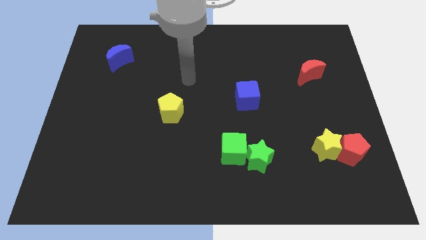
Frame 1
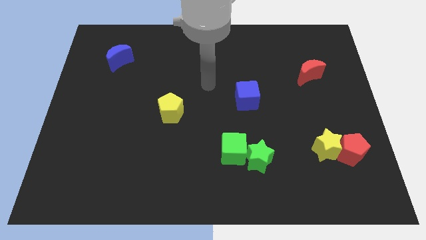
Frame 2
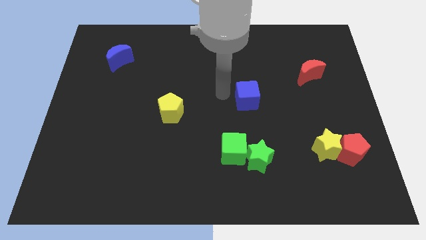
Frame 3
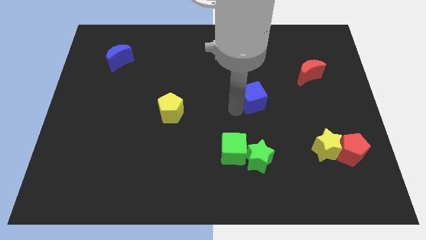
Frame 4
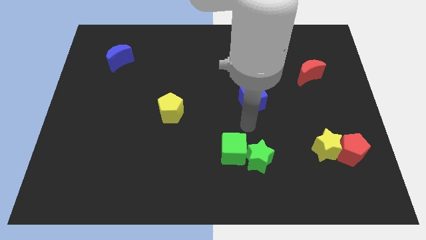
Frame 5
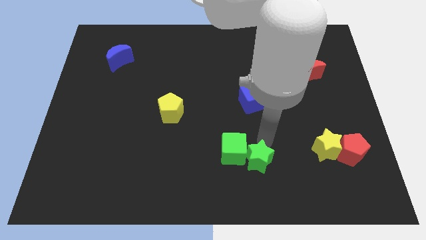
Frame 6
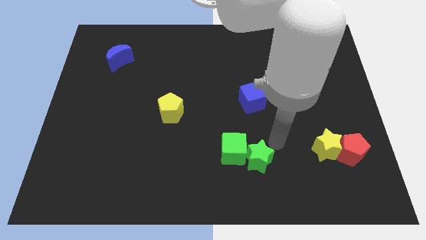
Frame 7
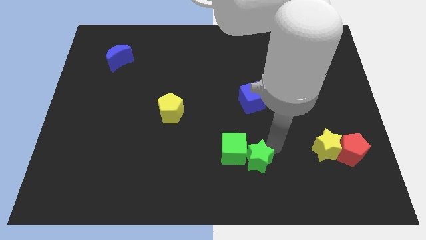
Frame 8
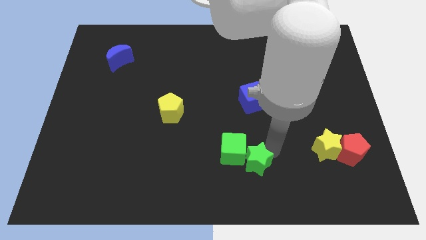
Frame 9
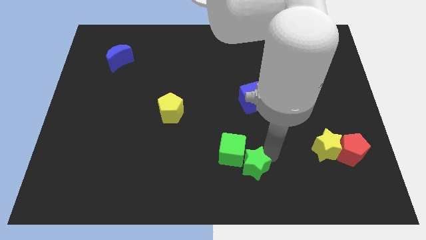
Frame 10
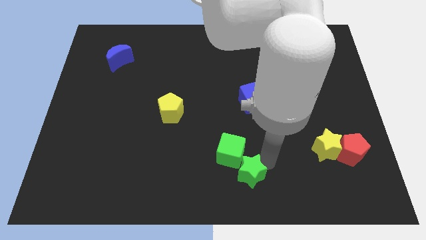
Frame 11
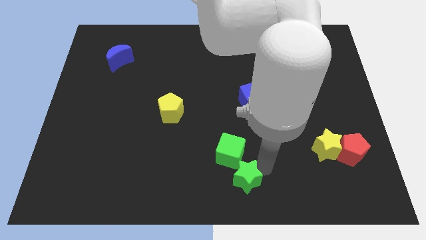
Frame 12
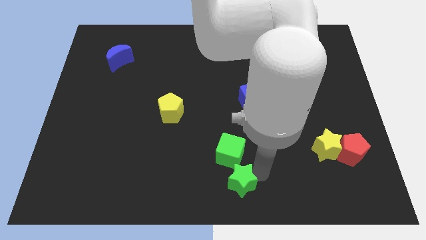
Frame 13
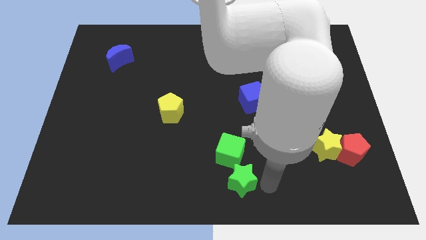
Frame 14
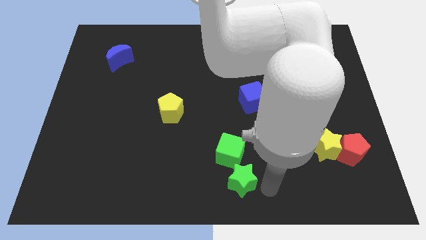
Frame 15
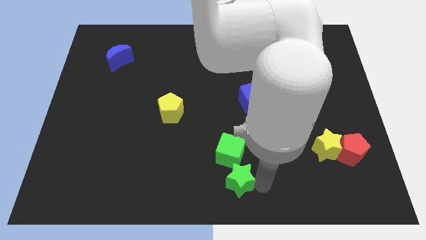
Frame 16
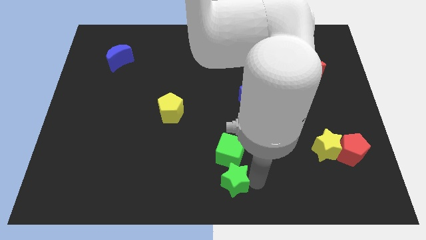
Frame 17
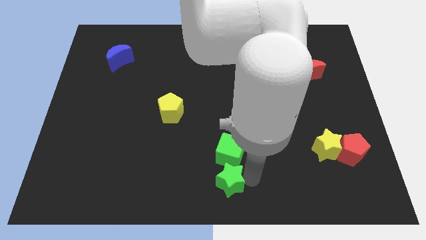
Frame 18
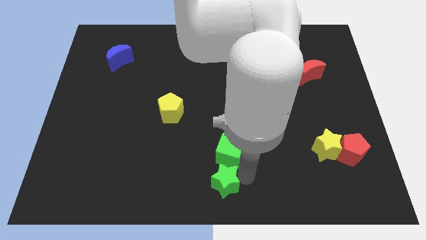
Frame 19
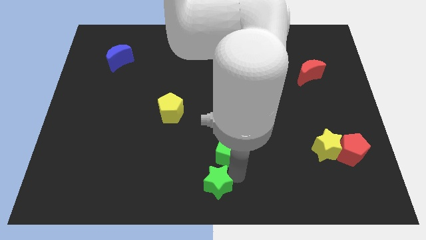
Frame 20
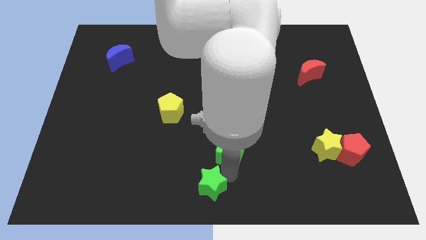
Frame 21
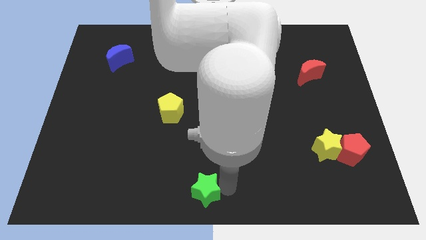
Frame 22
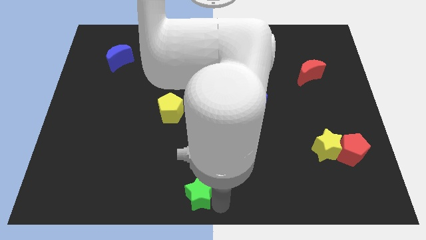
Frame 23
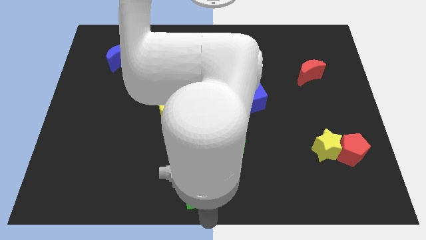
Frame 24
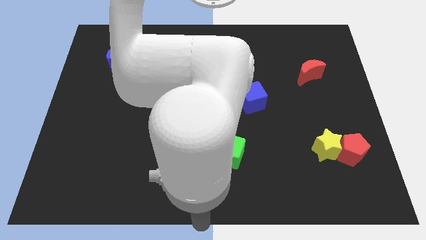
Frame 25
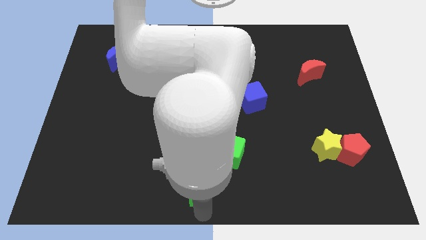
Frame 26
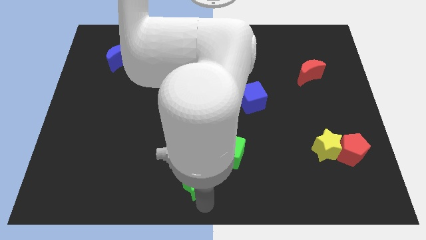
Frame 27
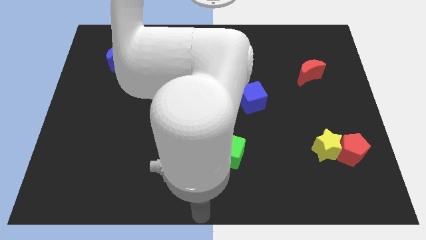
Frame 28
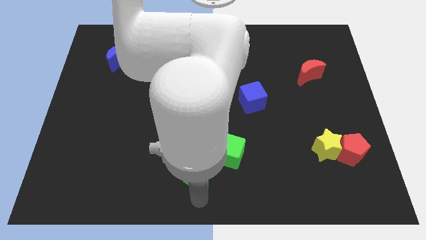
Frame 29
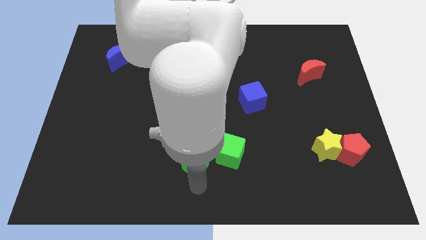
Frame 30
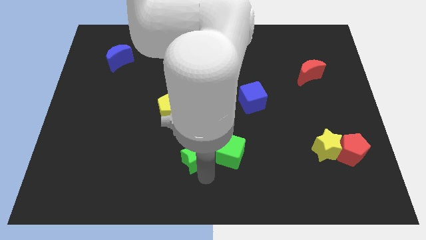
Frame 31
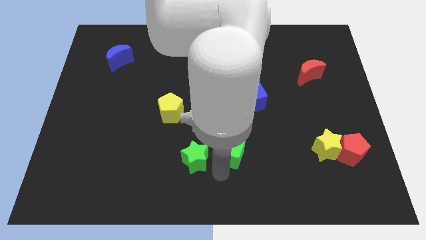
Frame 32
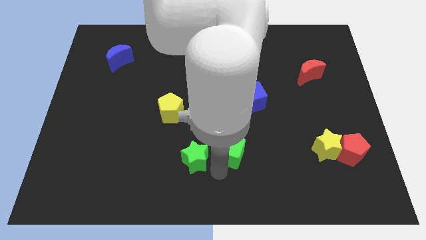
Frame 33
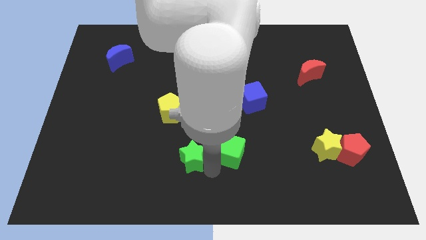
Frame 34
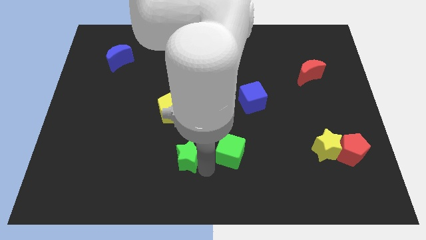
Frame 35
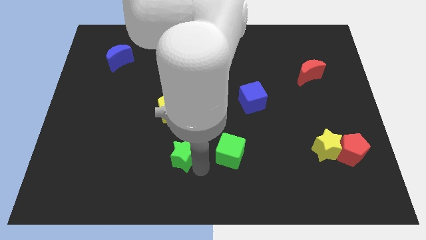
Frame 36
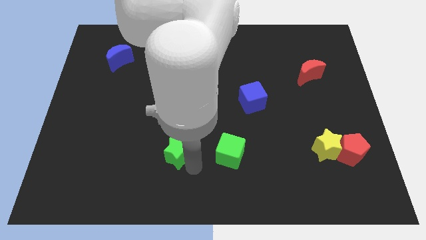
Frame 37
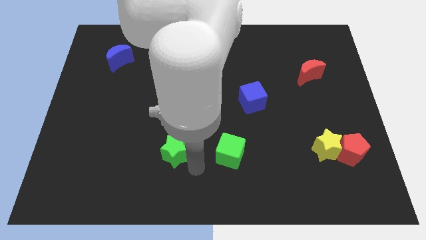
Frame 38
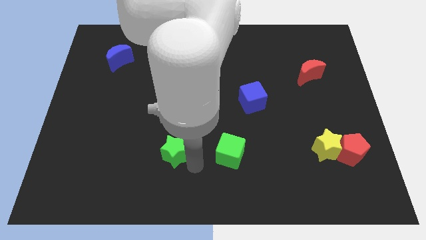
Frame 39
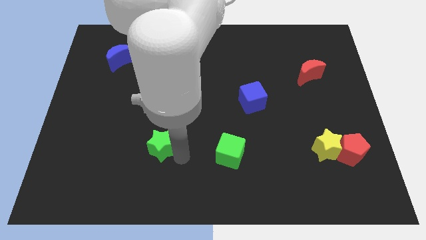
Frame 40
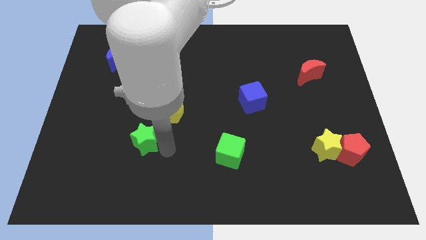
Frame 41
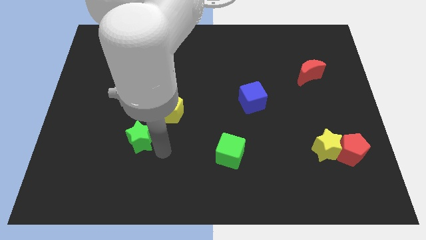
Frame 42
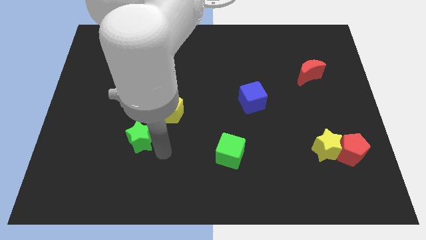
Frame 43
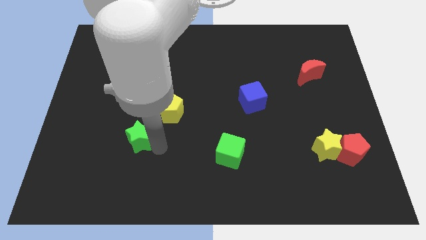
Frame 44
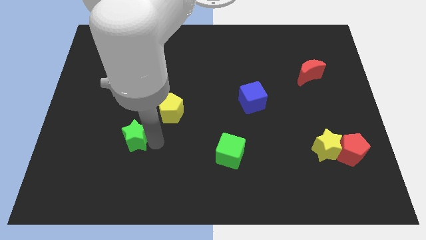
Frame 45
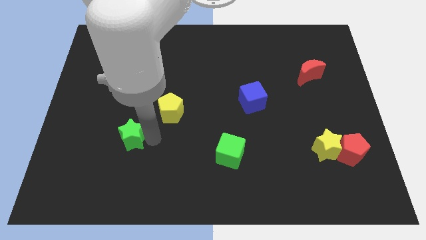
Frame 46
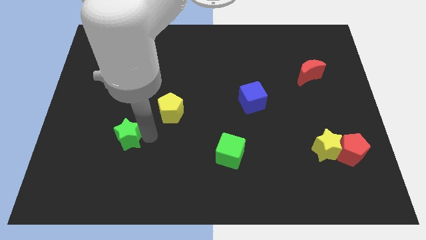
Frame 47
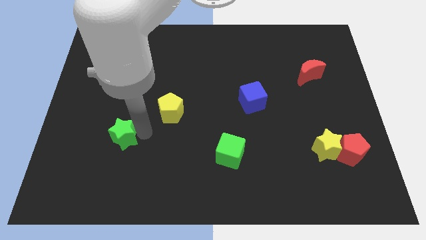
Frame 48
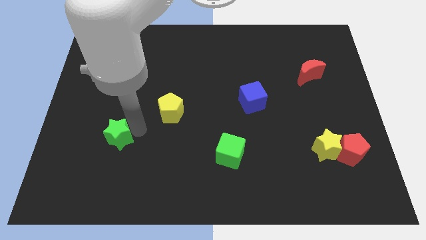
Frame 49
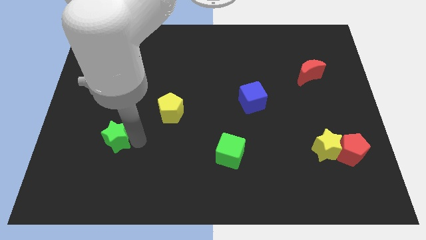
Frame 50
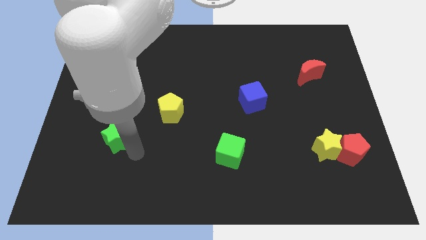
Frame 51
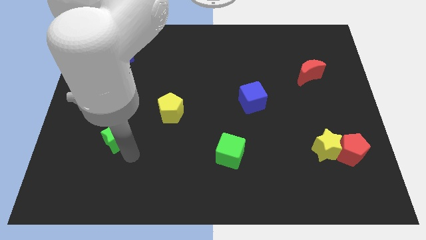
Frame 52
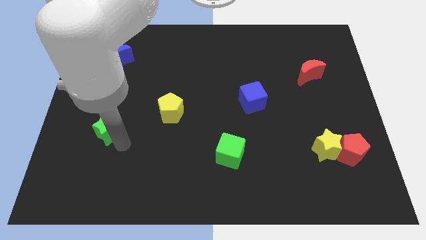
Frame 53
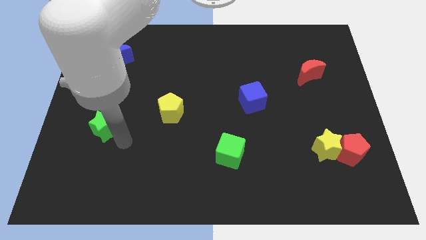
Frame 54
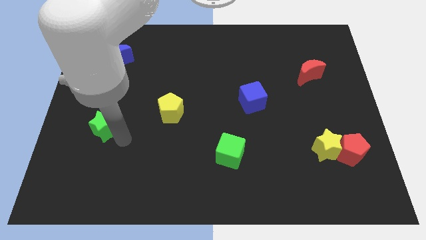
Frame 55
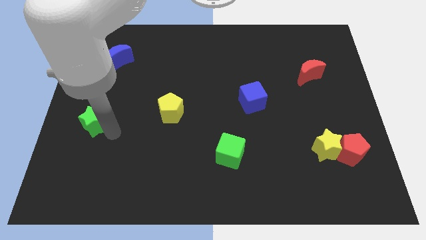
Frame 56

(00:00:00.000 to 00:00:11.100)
push the green star to the left side of the board
